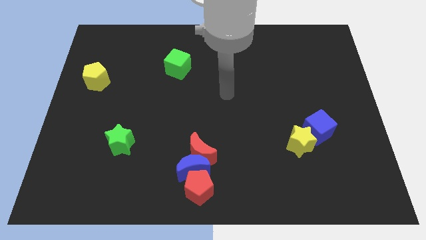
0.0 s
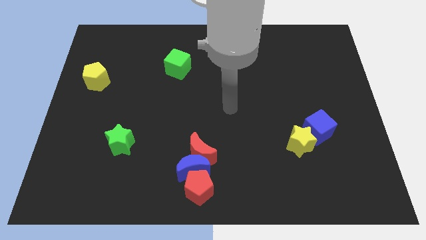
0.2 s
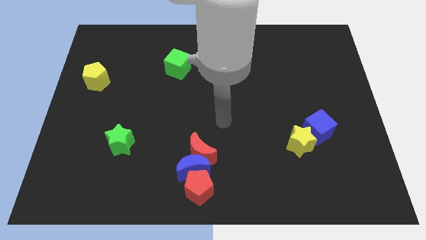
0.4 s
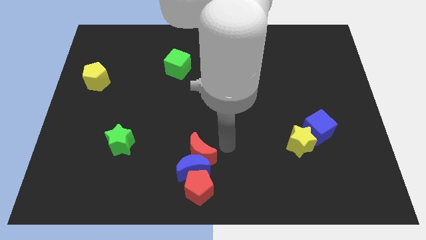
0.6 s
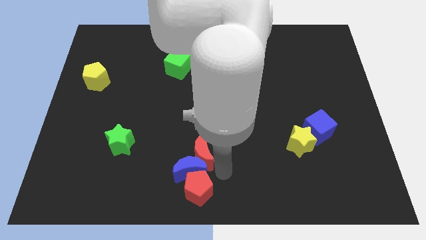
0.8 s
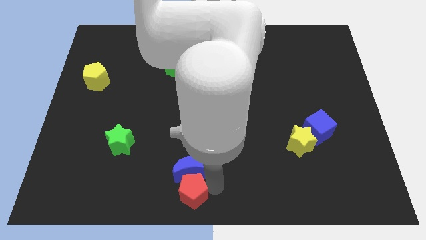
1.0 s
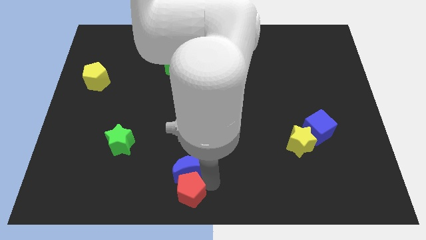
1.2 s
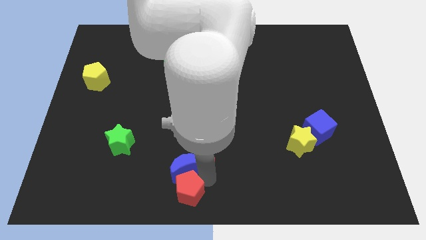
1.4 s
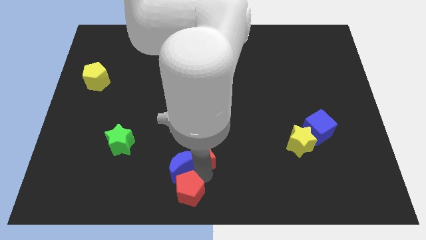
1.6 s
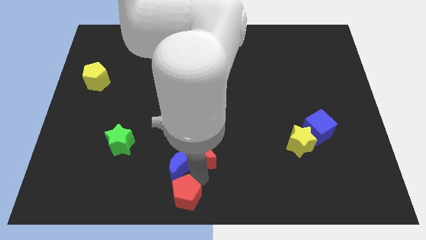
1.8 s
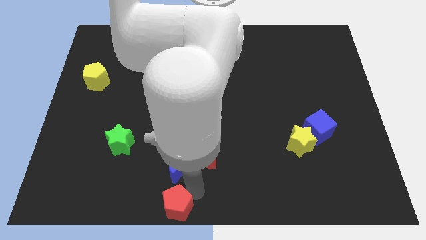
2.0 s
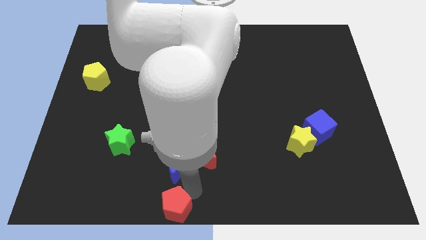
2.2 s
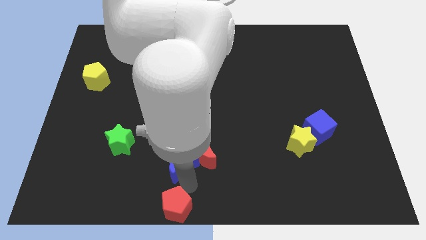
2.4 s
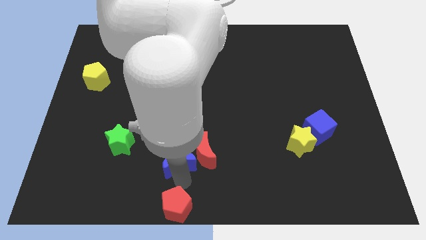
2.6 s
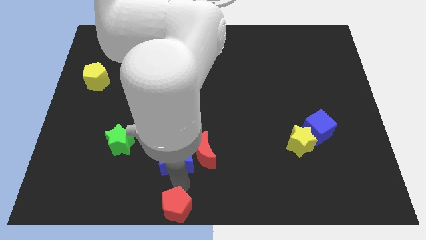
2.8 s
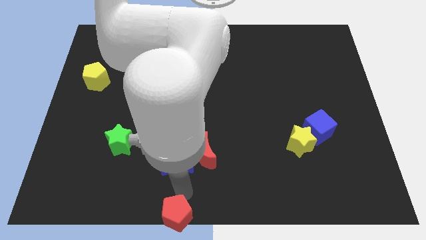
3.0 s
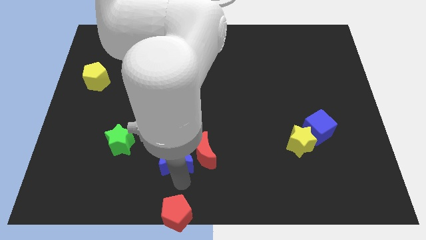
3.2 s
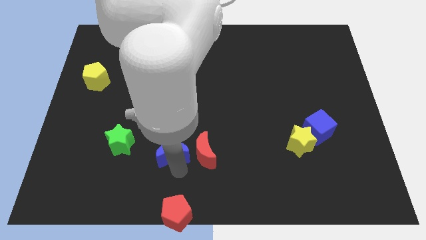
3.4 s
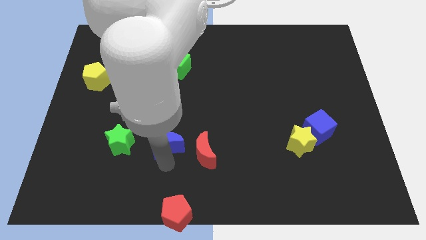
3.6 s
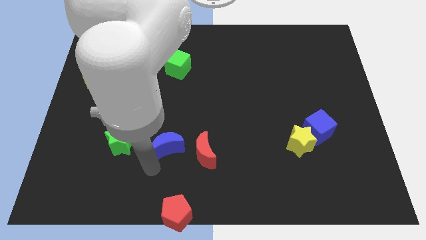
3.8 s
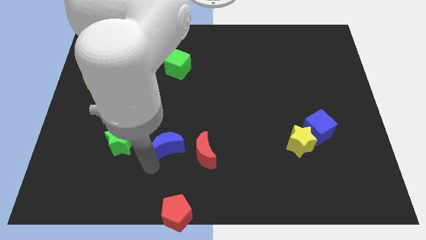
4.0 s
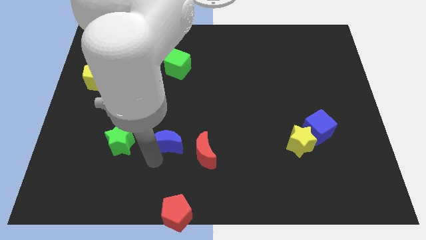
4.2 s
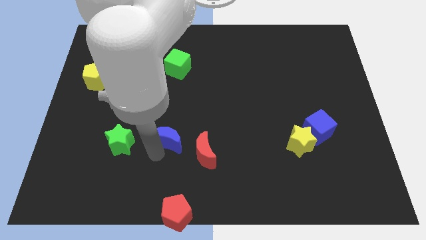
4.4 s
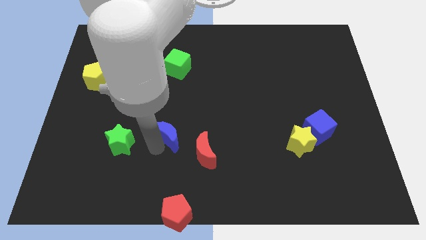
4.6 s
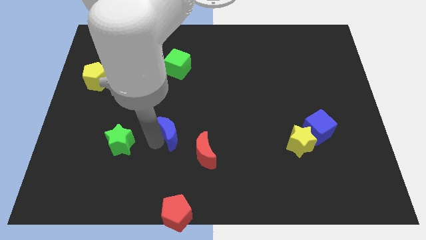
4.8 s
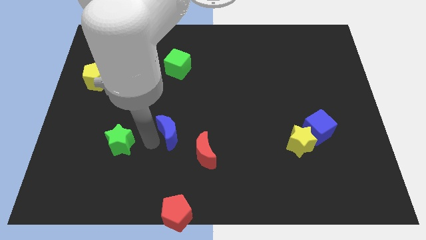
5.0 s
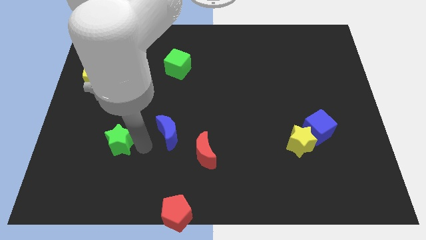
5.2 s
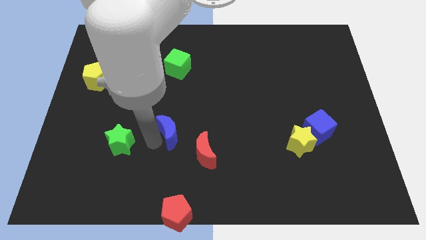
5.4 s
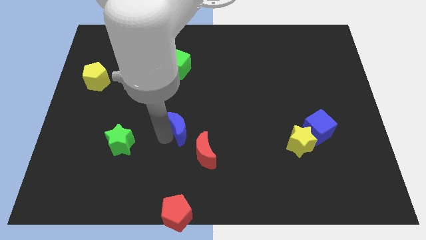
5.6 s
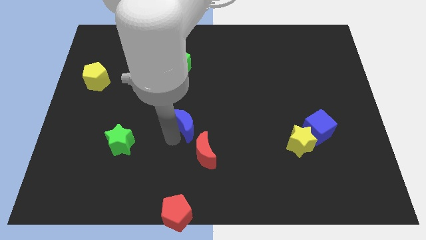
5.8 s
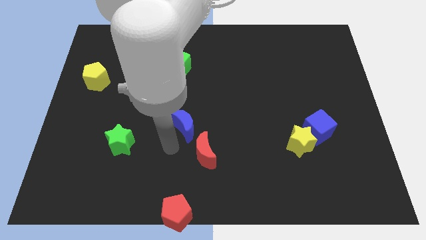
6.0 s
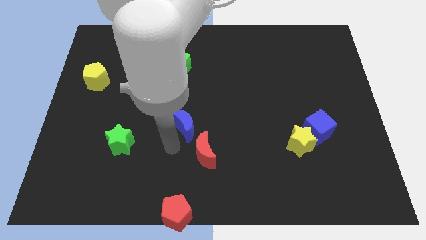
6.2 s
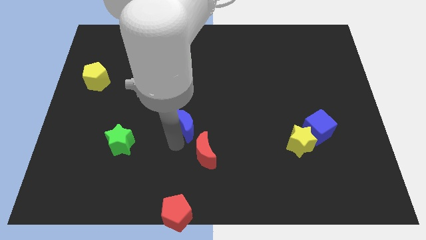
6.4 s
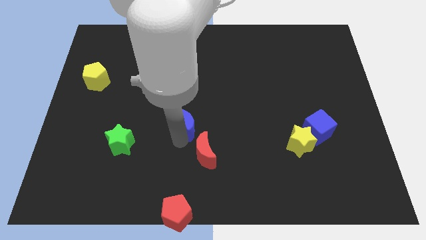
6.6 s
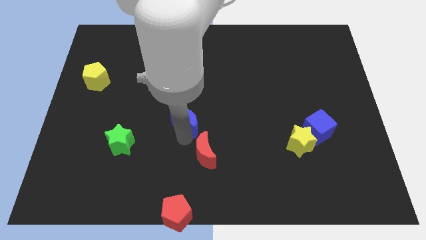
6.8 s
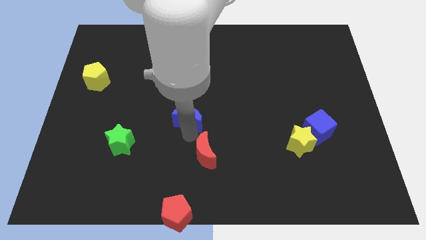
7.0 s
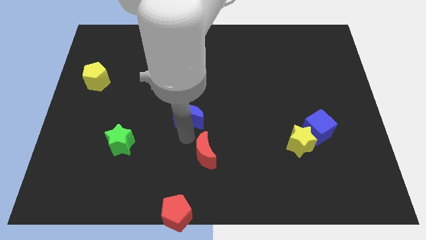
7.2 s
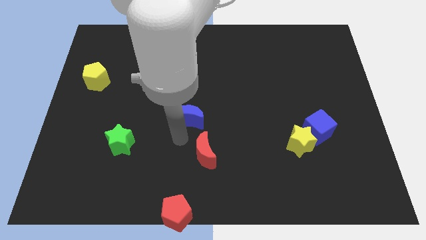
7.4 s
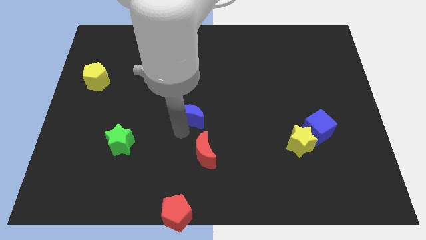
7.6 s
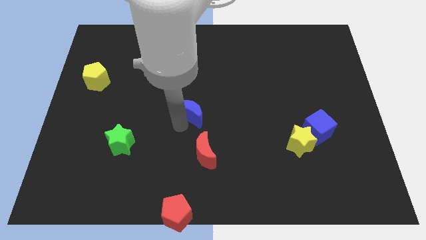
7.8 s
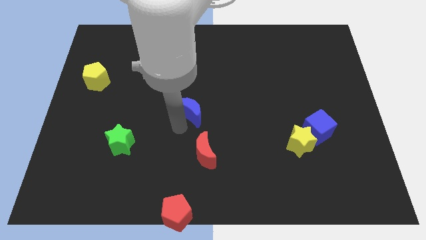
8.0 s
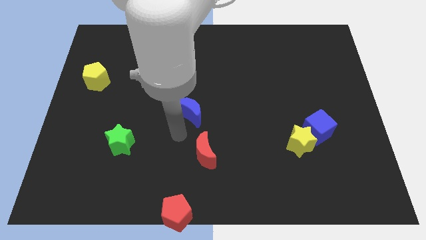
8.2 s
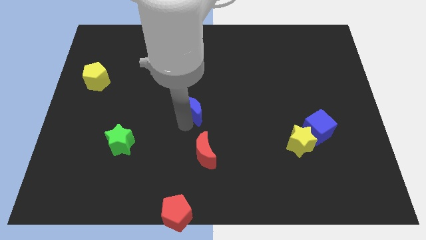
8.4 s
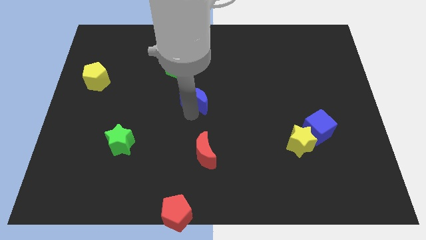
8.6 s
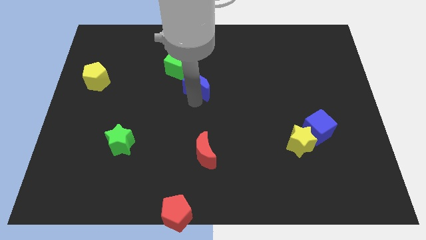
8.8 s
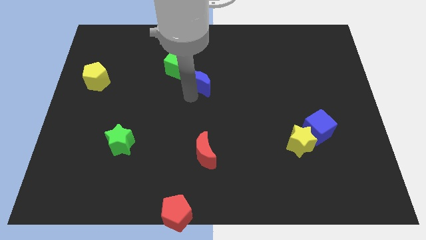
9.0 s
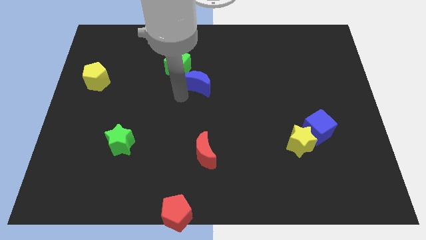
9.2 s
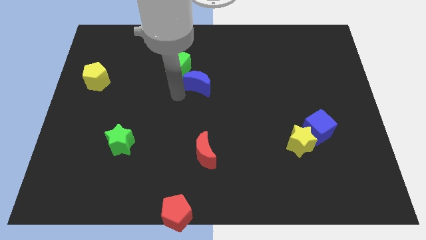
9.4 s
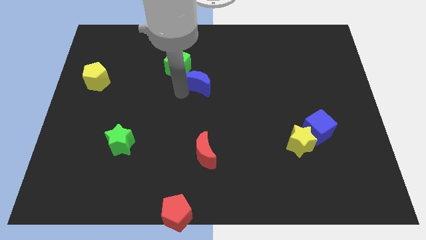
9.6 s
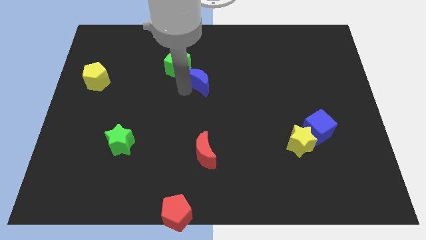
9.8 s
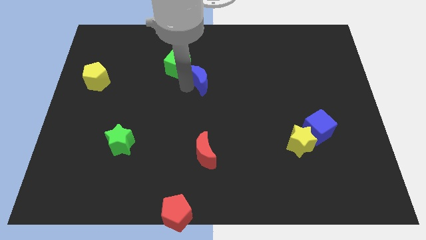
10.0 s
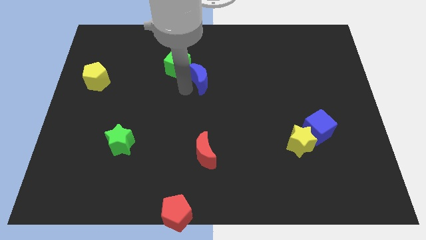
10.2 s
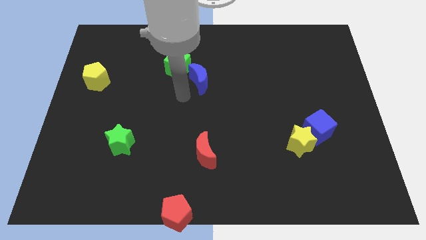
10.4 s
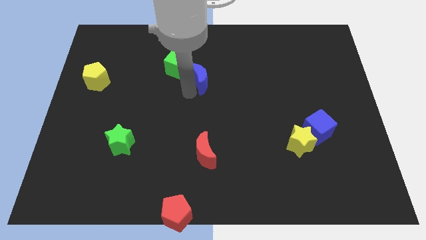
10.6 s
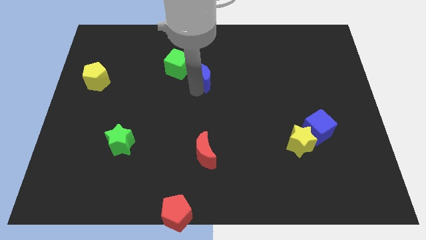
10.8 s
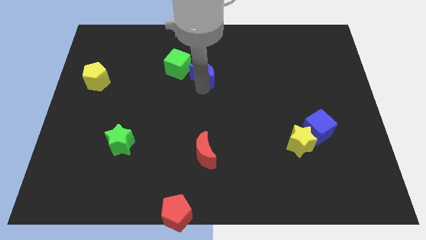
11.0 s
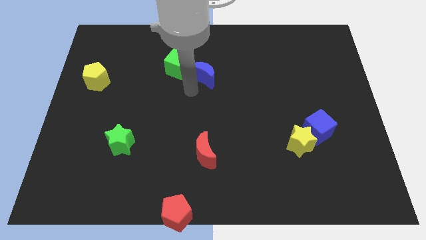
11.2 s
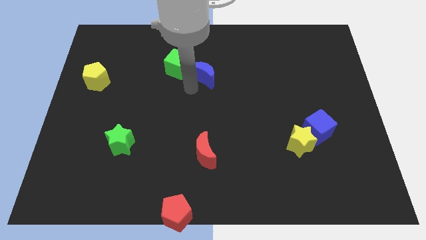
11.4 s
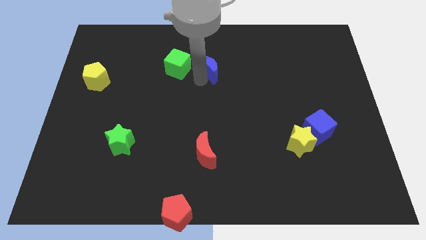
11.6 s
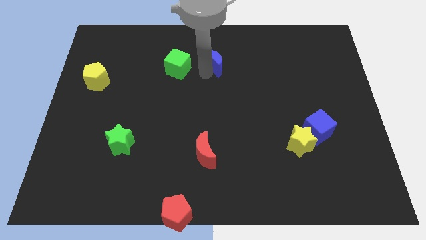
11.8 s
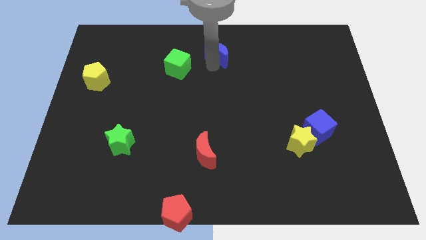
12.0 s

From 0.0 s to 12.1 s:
push the blue moon to the top

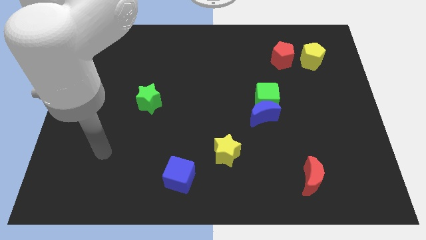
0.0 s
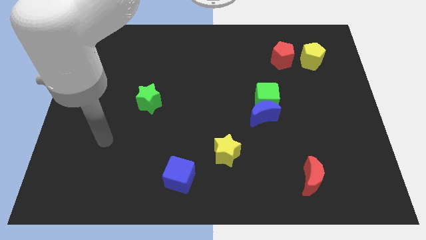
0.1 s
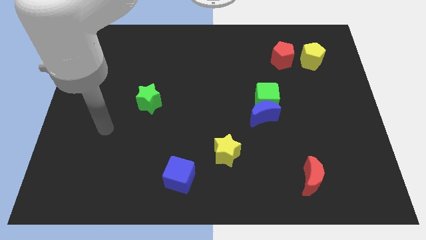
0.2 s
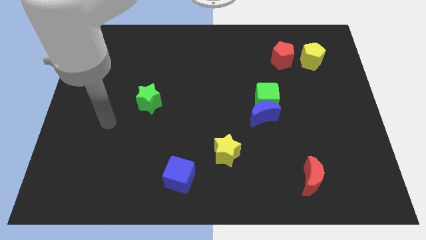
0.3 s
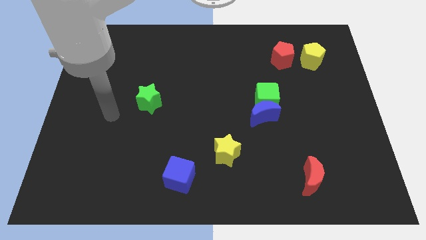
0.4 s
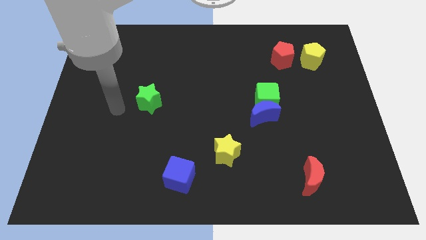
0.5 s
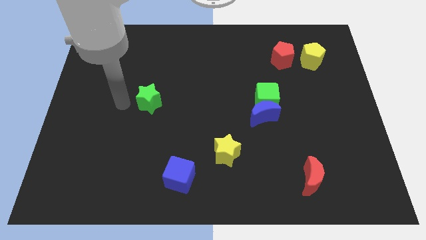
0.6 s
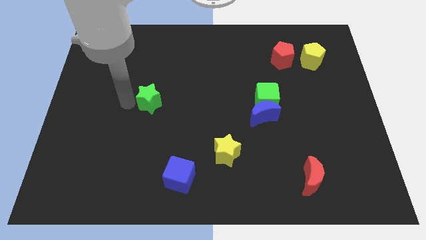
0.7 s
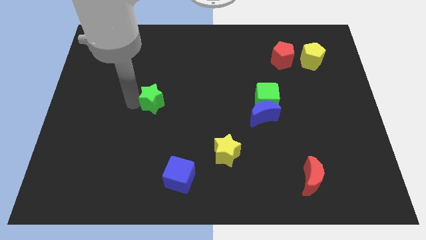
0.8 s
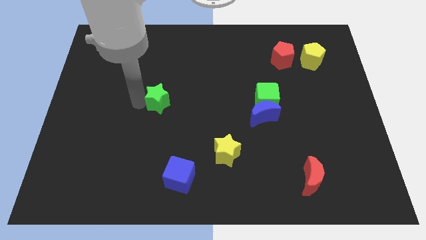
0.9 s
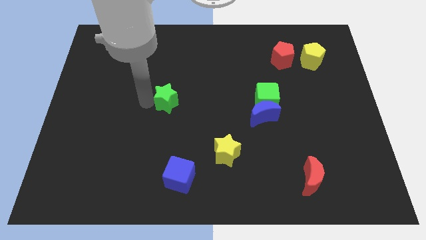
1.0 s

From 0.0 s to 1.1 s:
put the green star to the center
